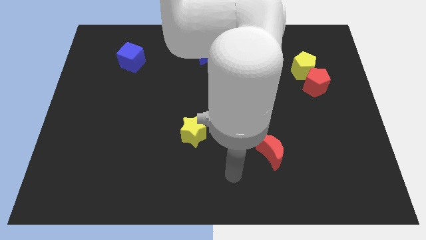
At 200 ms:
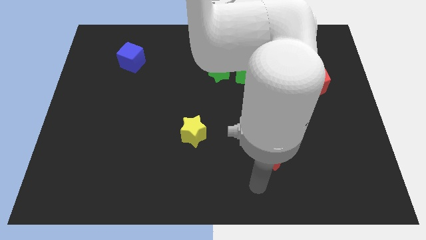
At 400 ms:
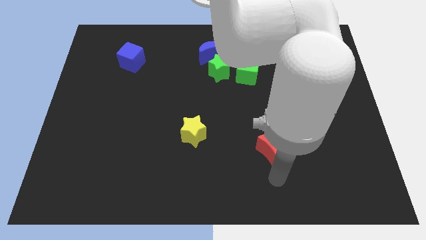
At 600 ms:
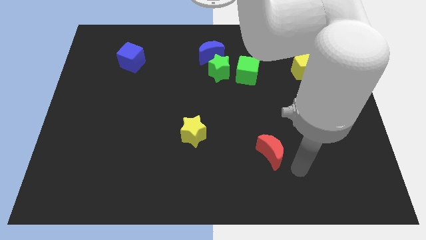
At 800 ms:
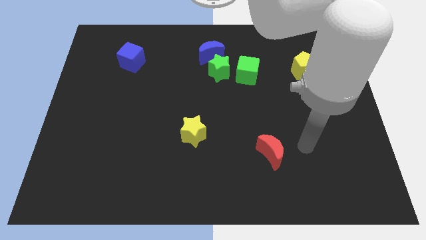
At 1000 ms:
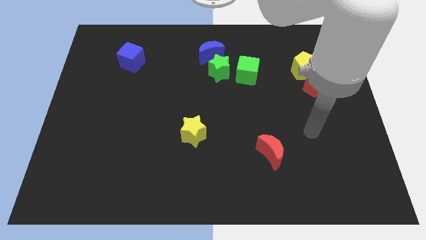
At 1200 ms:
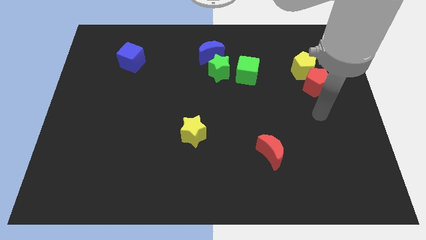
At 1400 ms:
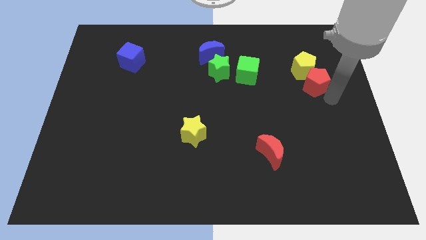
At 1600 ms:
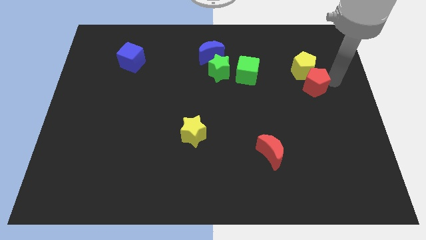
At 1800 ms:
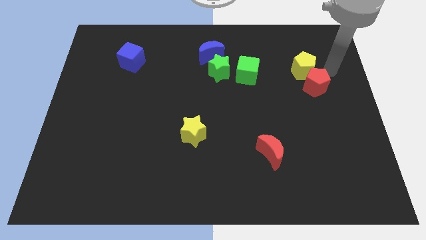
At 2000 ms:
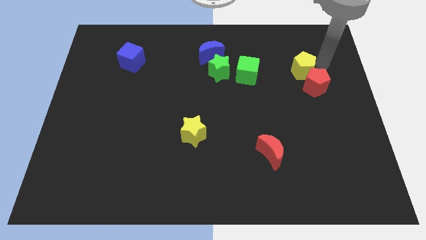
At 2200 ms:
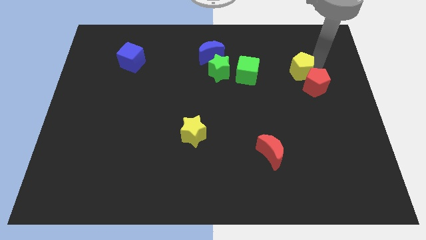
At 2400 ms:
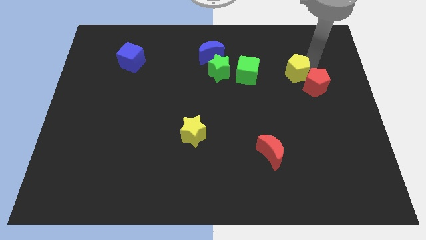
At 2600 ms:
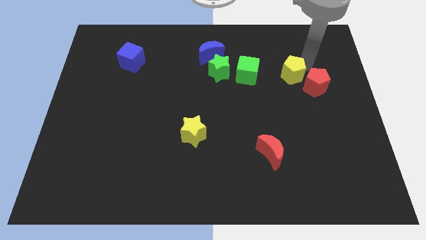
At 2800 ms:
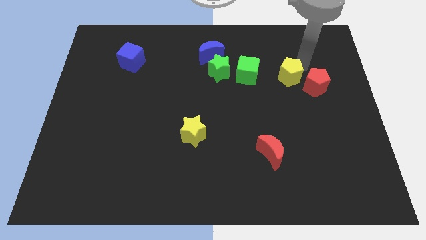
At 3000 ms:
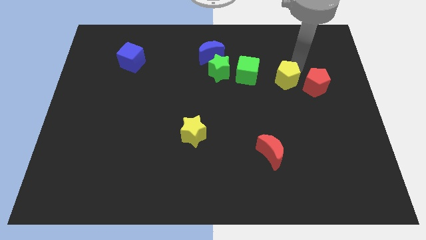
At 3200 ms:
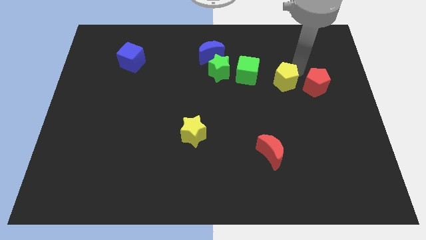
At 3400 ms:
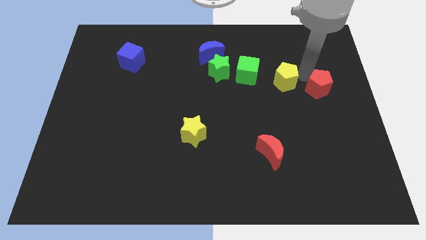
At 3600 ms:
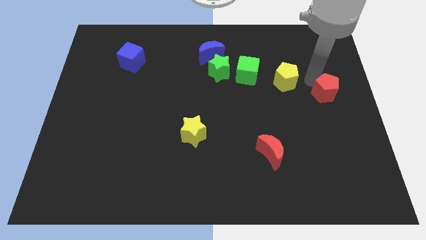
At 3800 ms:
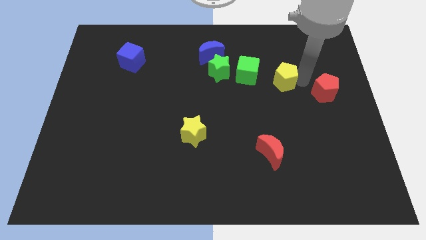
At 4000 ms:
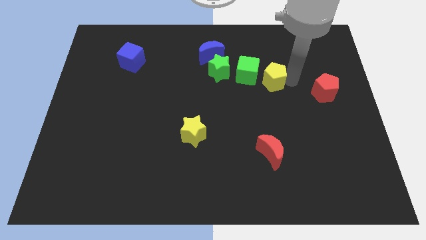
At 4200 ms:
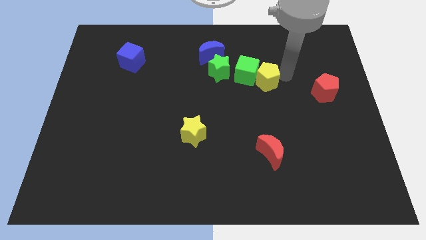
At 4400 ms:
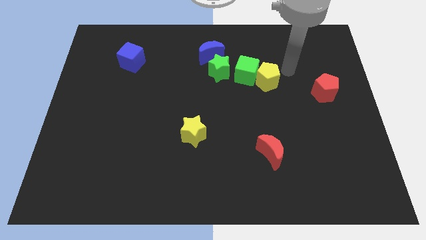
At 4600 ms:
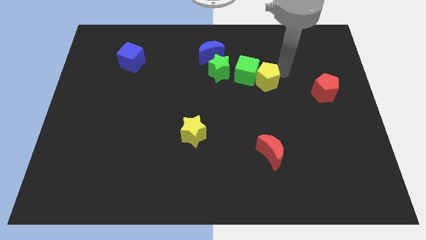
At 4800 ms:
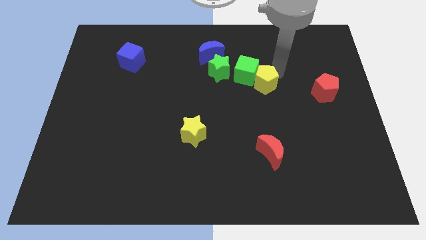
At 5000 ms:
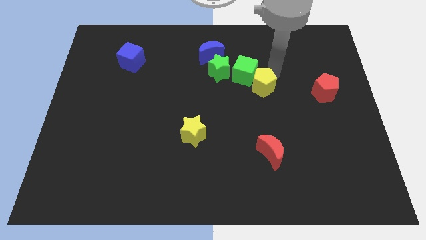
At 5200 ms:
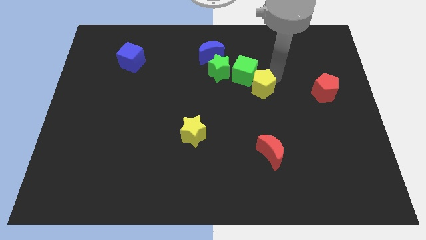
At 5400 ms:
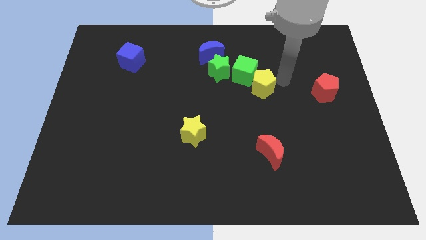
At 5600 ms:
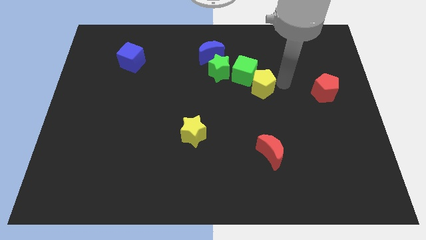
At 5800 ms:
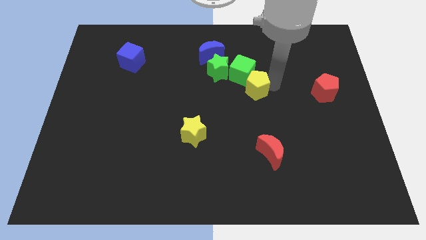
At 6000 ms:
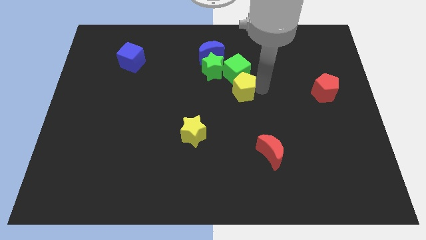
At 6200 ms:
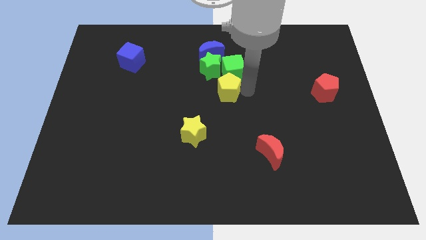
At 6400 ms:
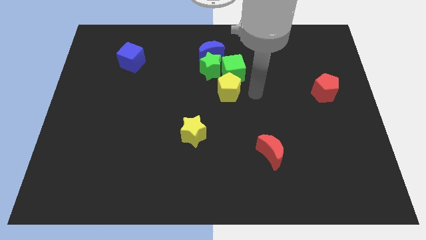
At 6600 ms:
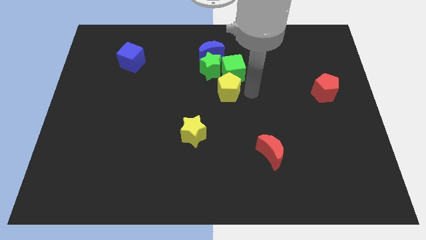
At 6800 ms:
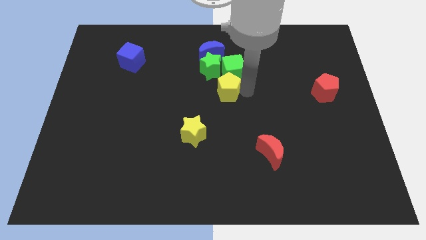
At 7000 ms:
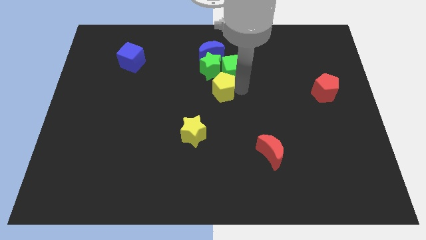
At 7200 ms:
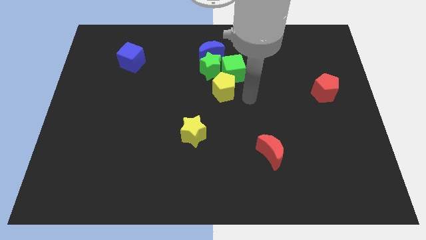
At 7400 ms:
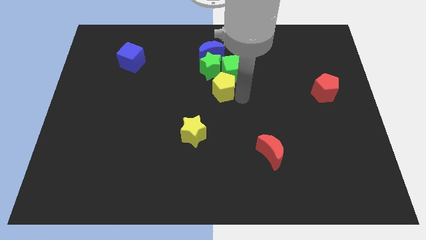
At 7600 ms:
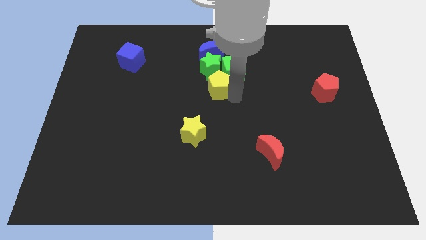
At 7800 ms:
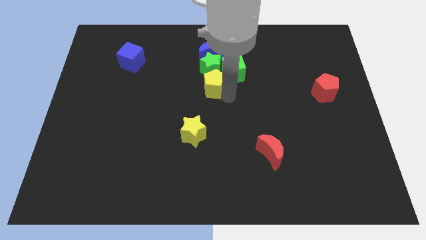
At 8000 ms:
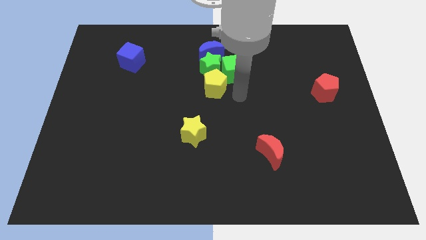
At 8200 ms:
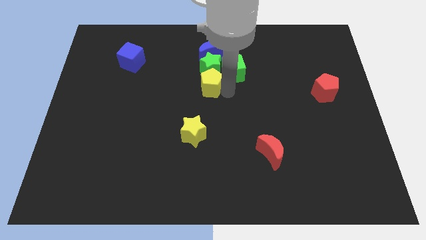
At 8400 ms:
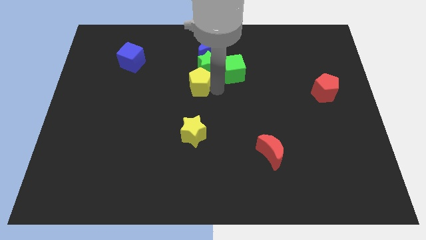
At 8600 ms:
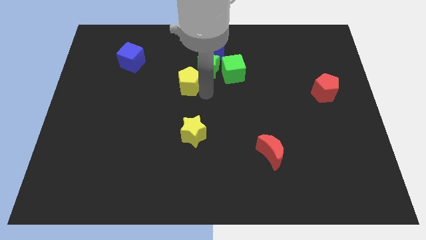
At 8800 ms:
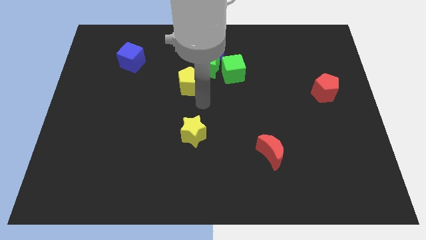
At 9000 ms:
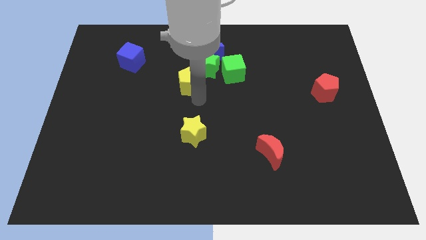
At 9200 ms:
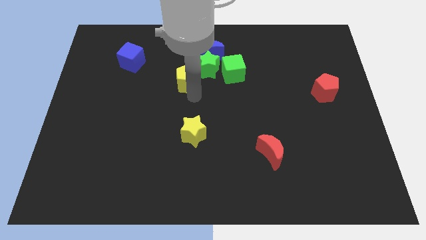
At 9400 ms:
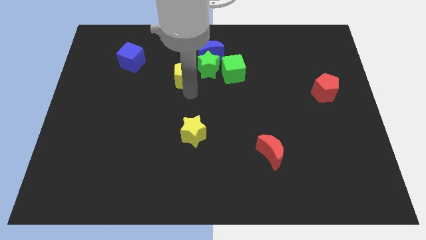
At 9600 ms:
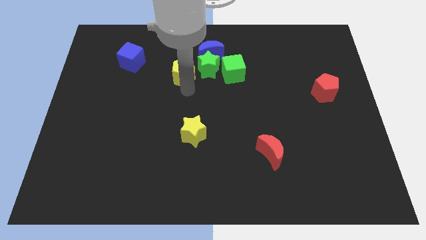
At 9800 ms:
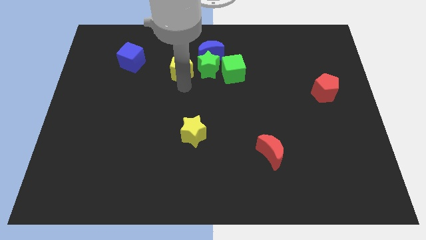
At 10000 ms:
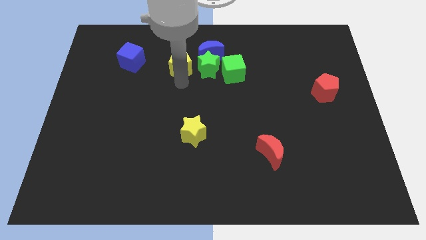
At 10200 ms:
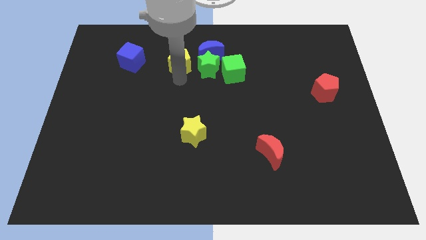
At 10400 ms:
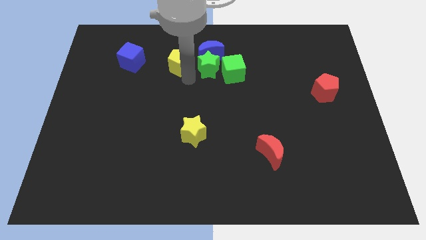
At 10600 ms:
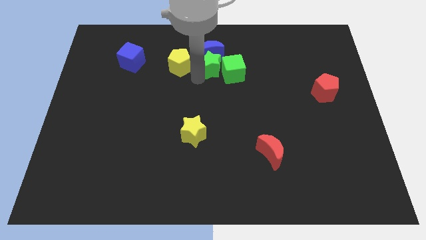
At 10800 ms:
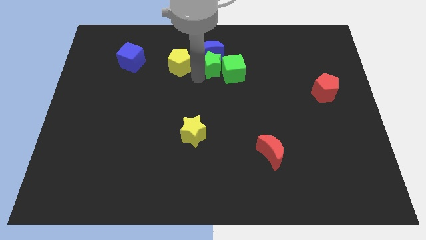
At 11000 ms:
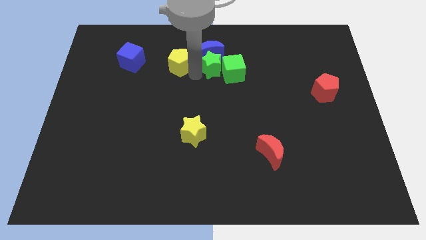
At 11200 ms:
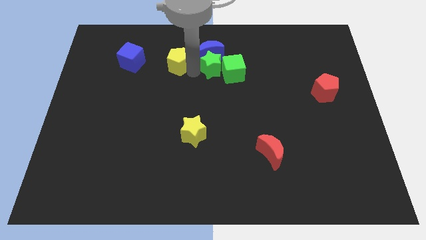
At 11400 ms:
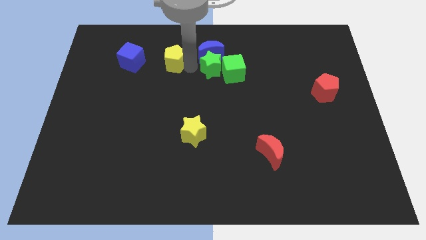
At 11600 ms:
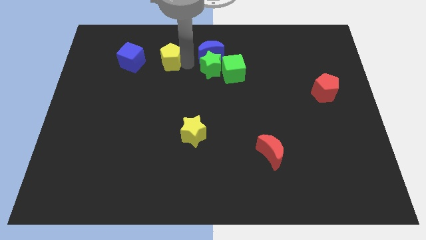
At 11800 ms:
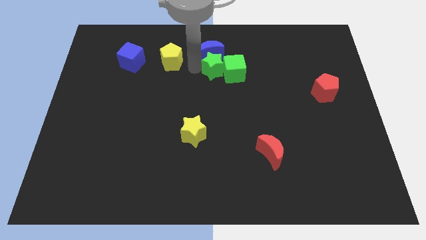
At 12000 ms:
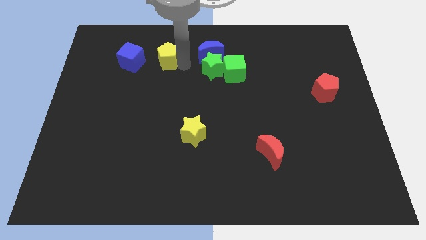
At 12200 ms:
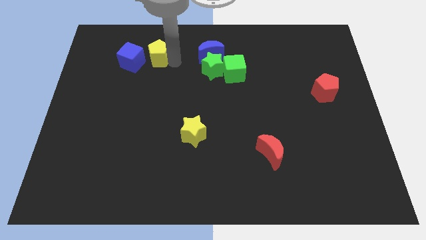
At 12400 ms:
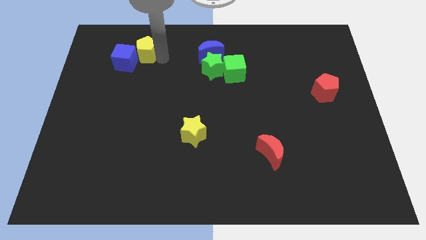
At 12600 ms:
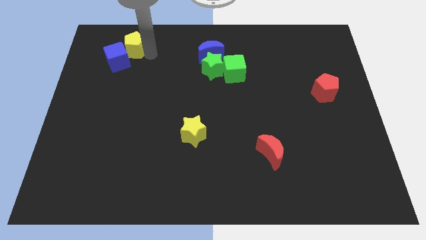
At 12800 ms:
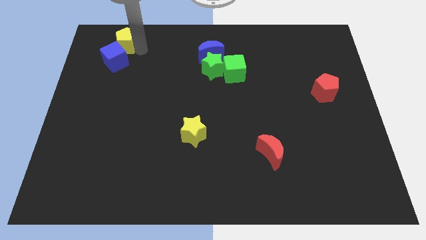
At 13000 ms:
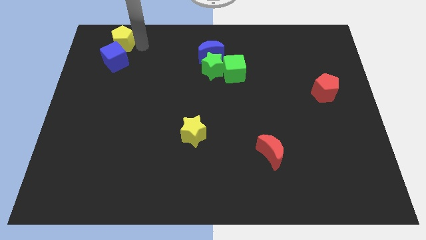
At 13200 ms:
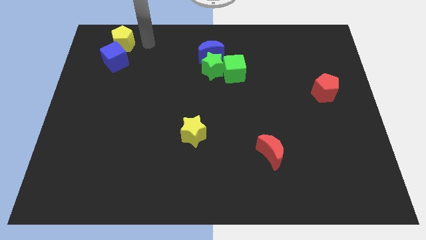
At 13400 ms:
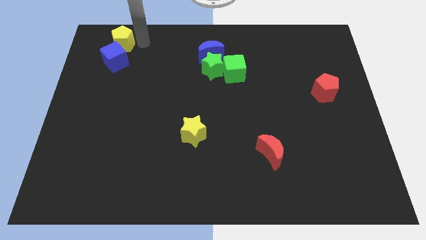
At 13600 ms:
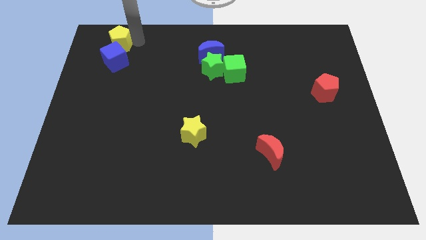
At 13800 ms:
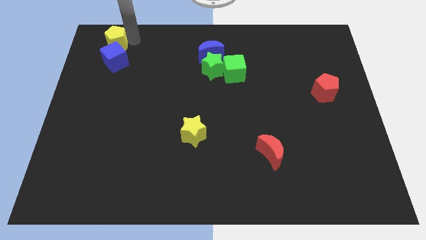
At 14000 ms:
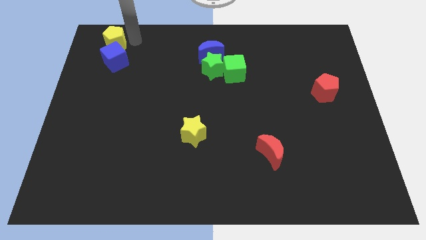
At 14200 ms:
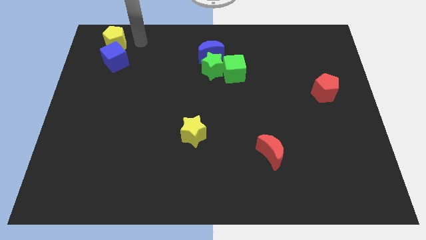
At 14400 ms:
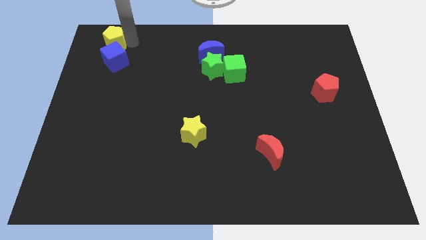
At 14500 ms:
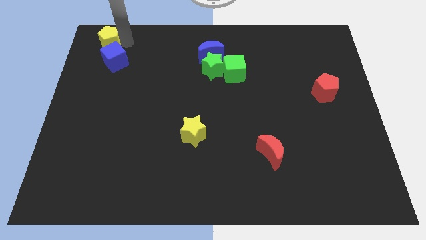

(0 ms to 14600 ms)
push the yellow pentagon to the top left
